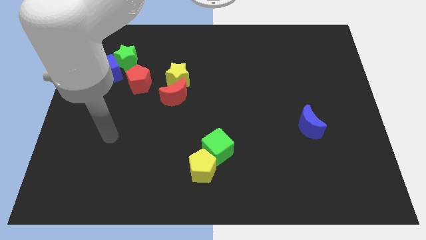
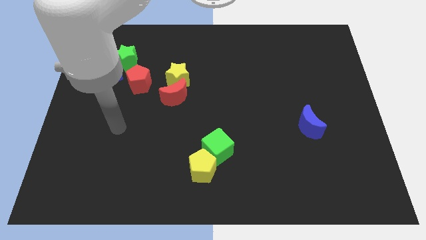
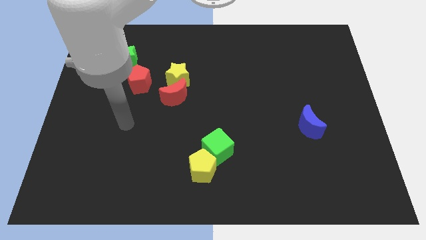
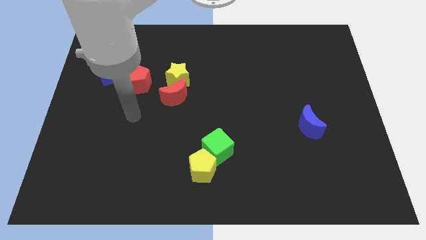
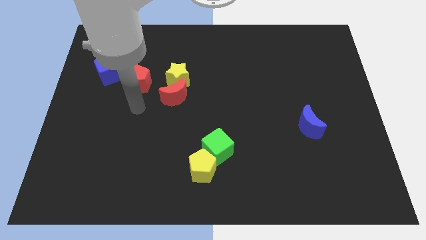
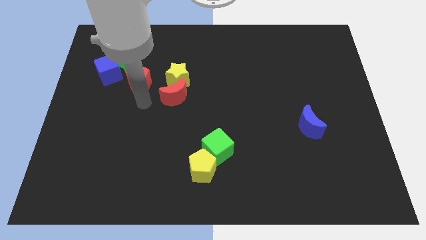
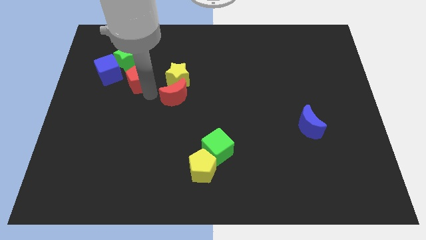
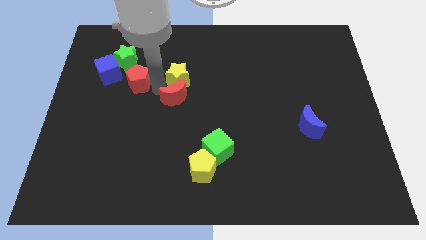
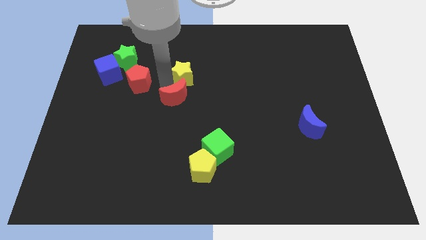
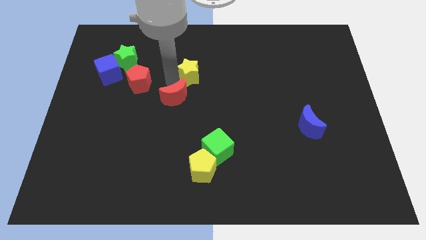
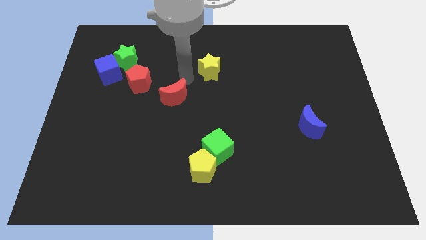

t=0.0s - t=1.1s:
pull the red moon apart from the yellow star

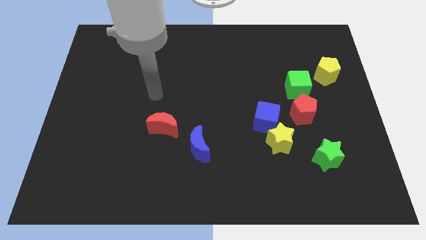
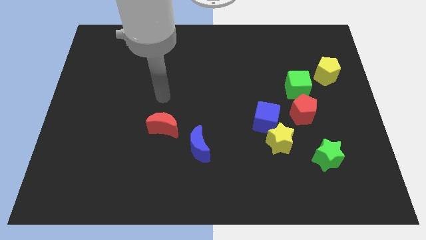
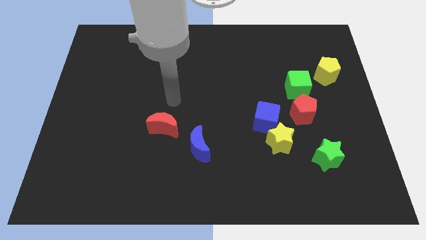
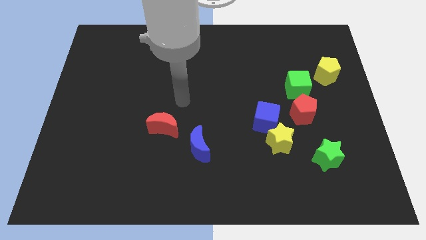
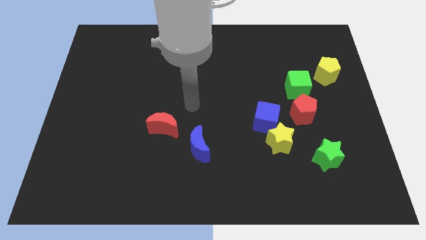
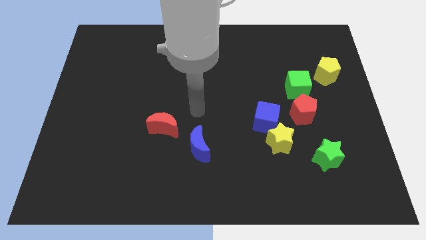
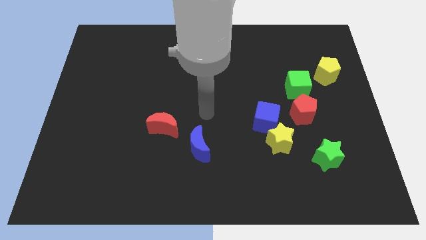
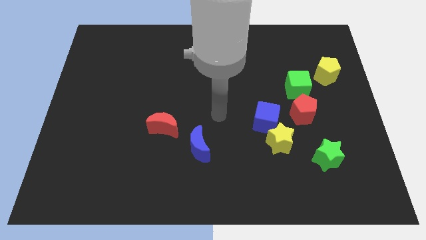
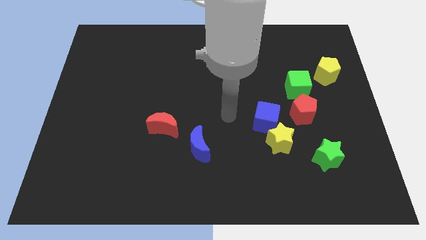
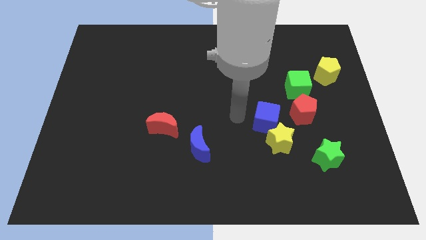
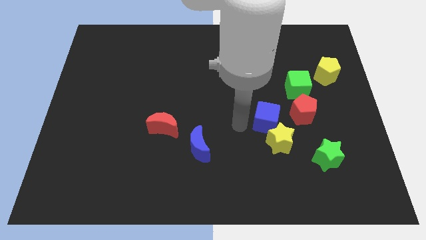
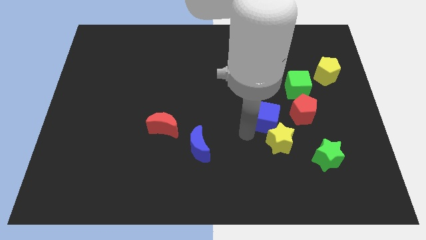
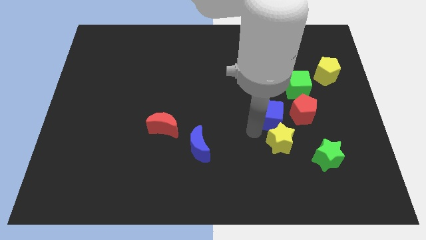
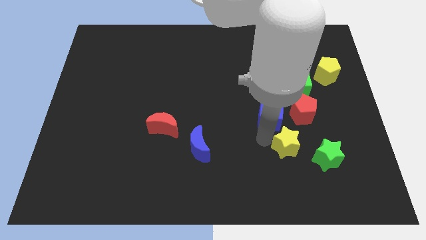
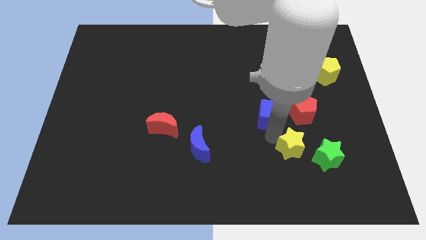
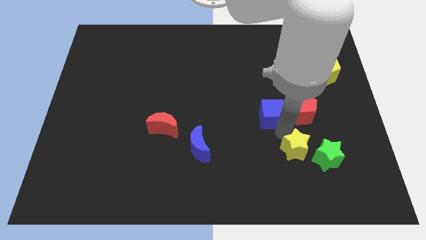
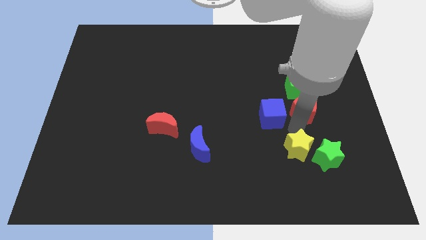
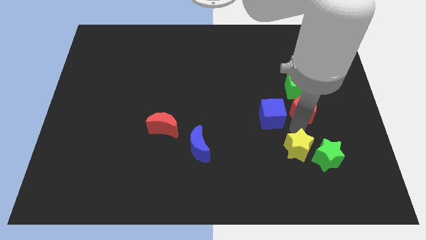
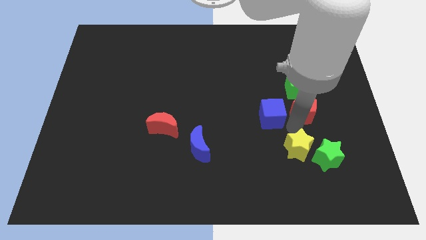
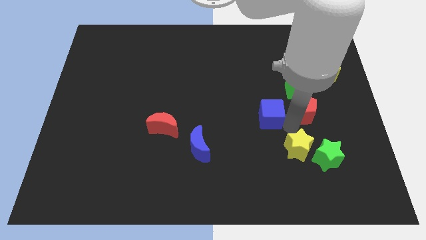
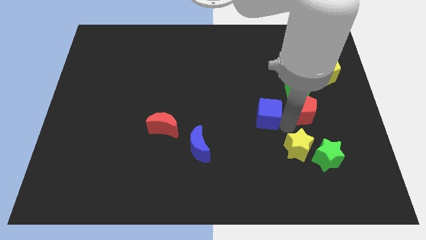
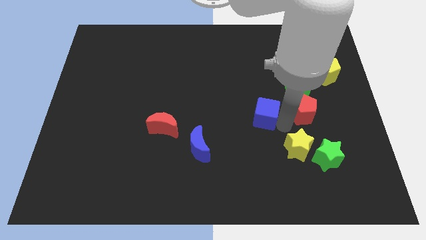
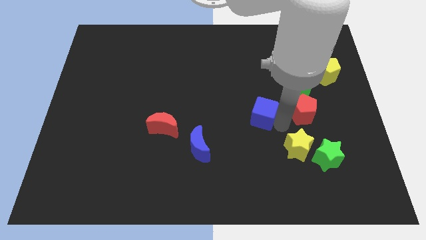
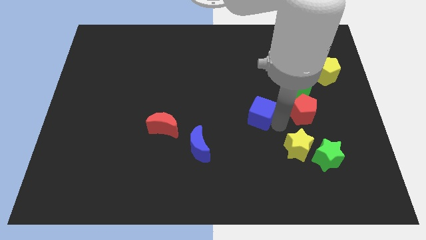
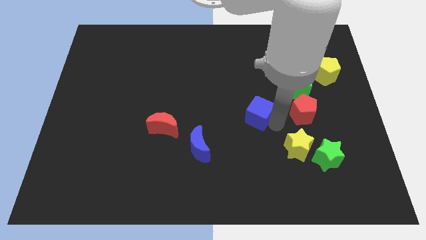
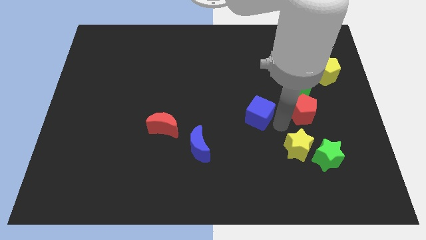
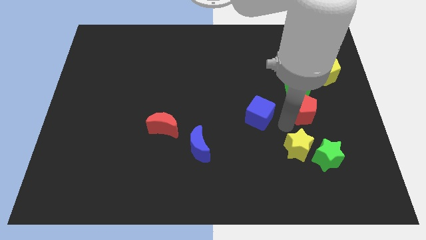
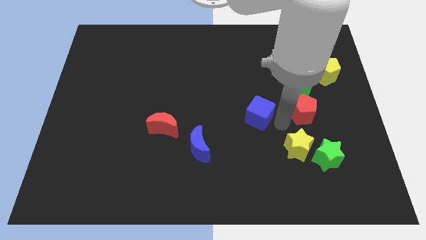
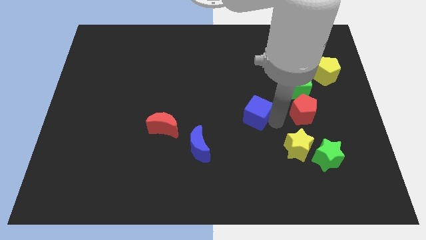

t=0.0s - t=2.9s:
separate the blue cube from the yellow star and red pentagon

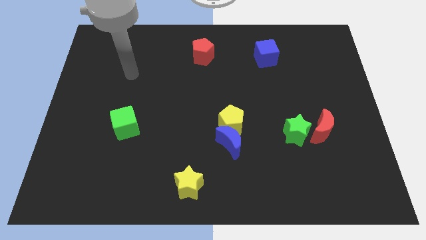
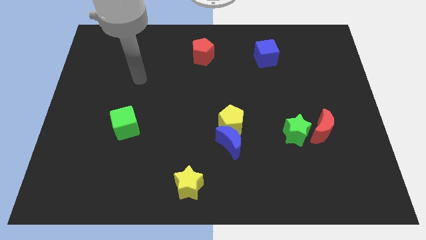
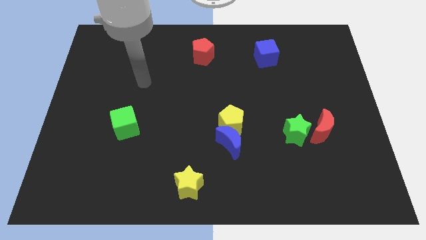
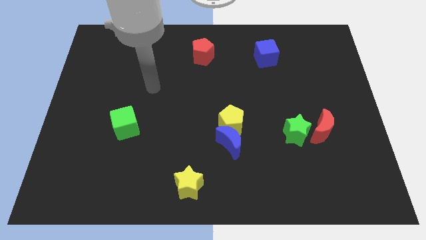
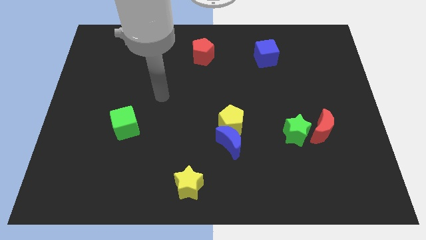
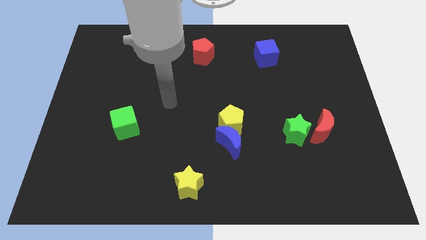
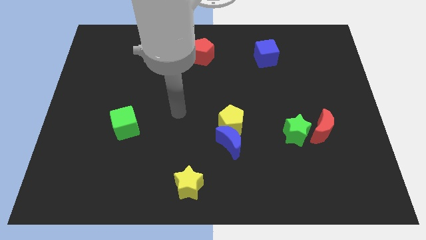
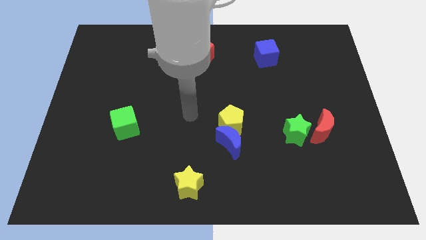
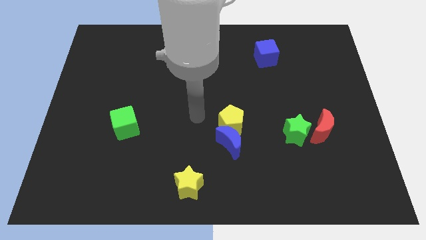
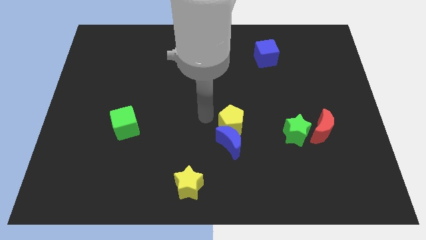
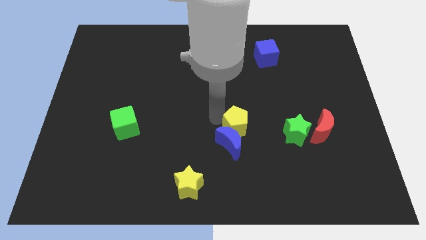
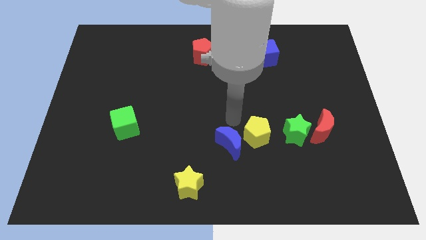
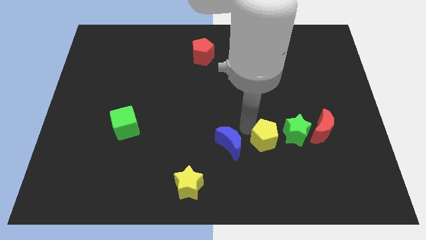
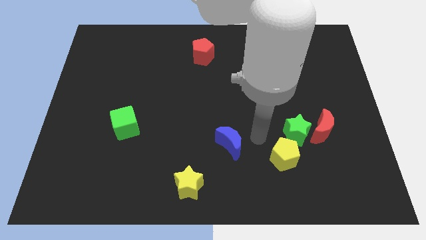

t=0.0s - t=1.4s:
pull the blue moon apart from the yellow pentagon

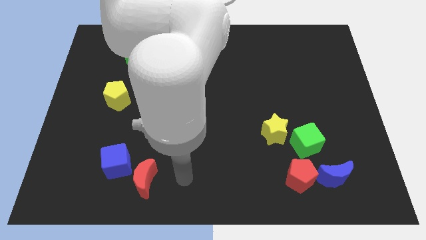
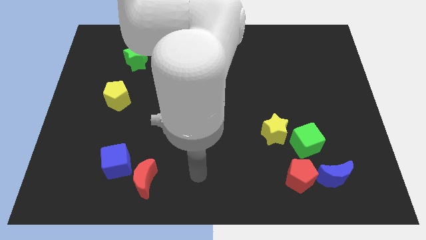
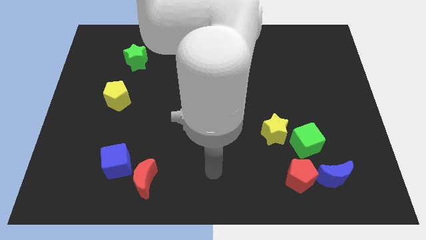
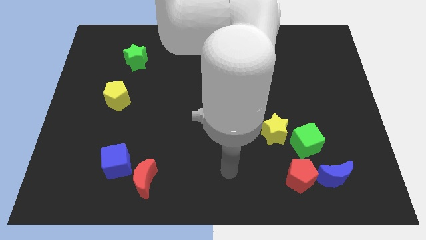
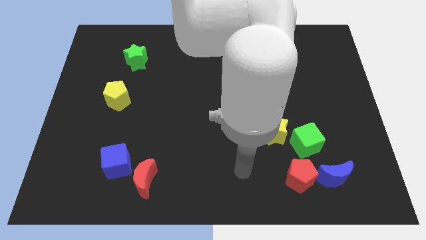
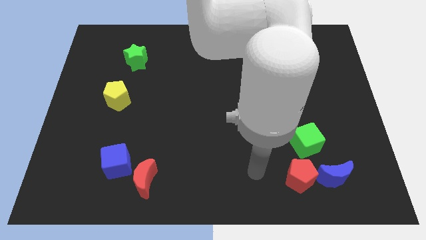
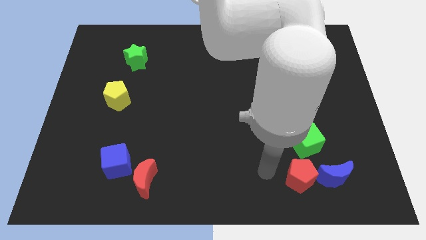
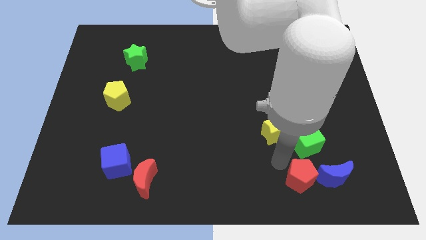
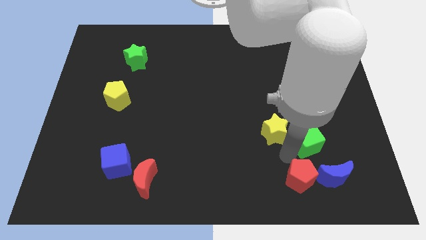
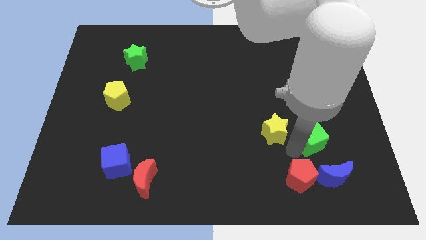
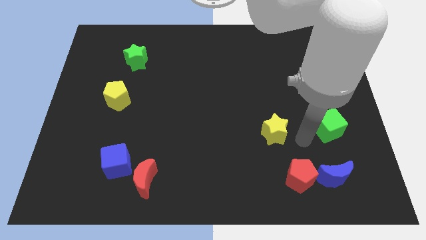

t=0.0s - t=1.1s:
separate the yellow star from the green cube

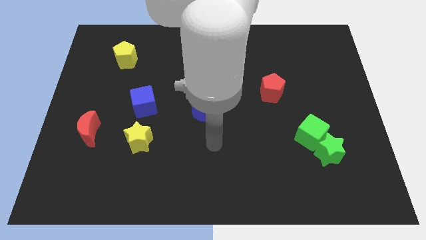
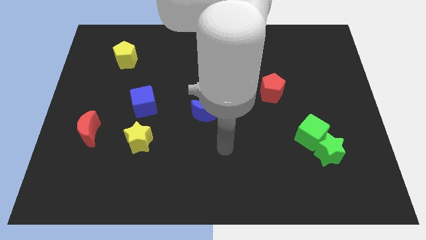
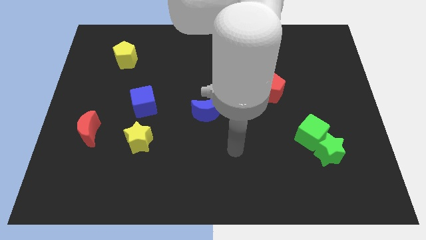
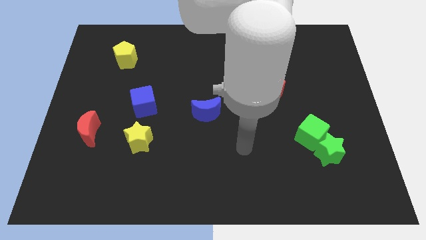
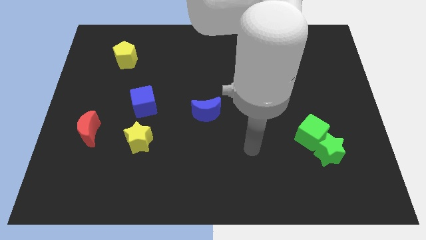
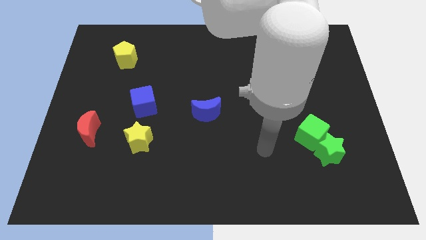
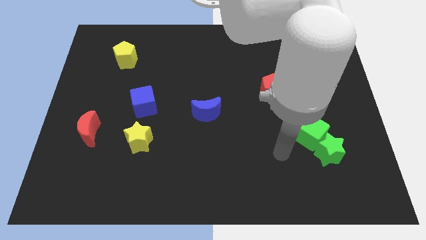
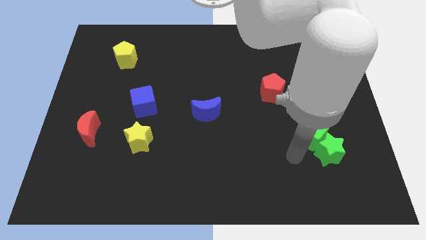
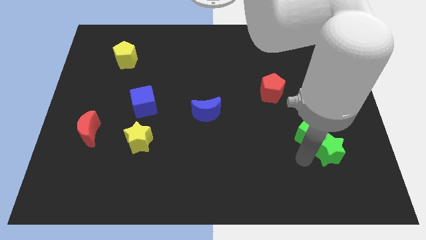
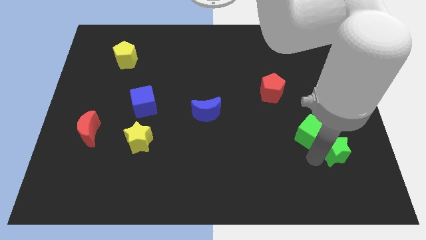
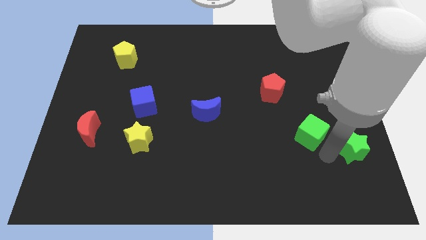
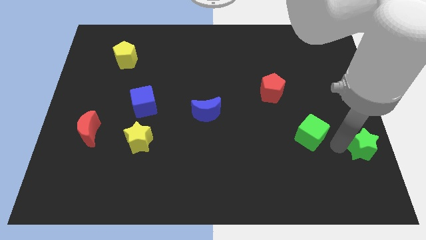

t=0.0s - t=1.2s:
separate the green cube from the green star

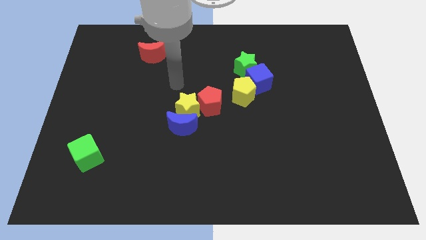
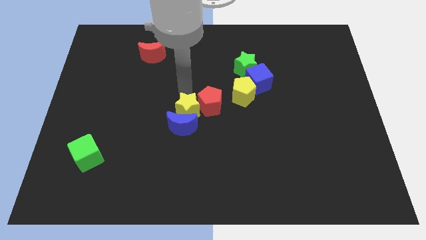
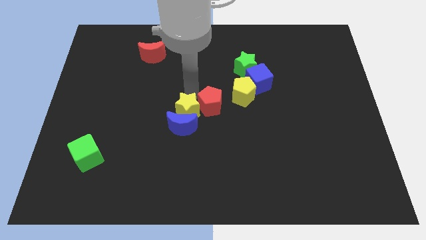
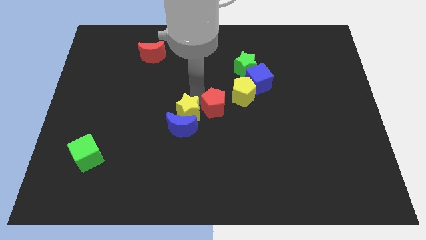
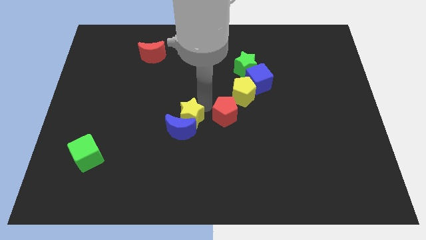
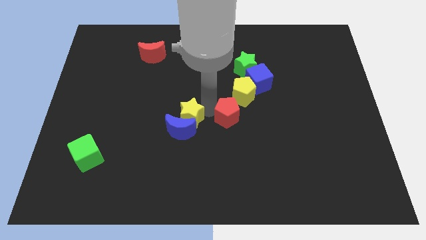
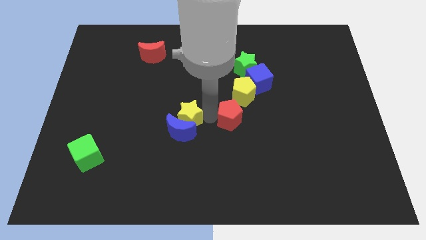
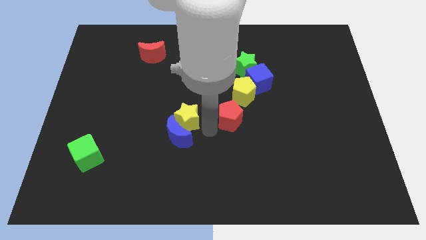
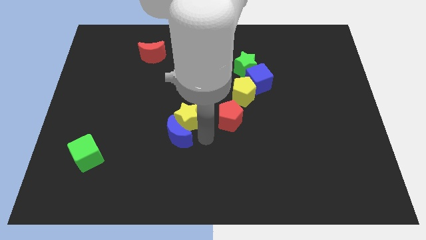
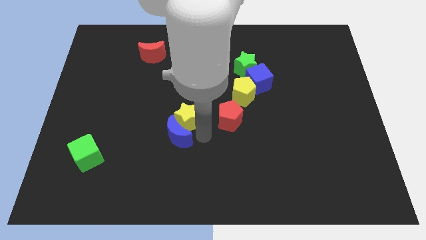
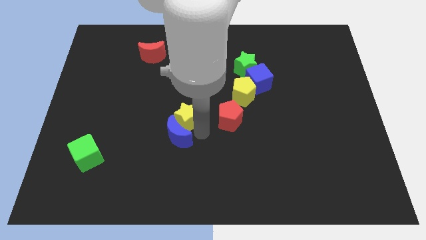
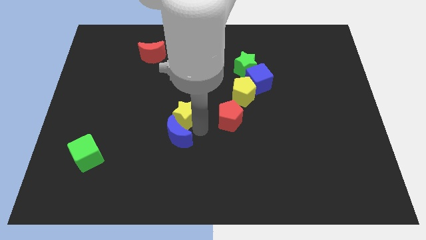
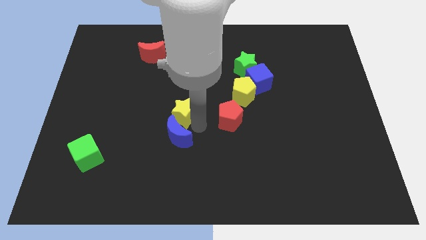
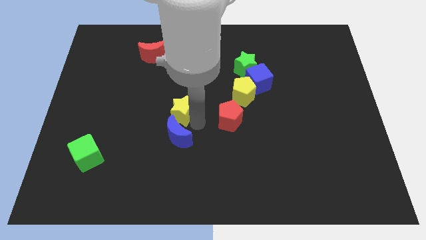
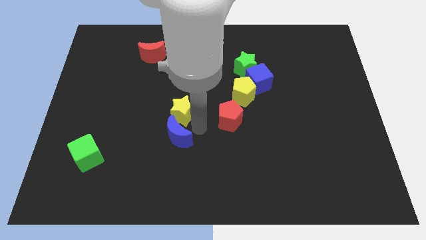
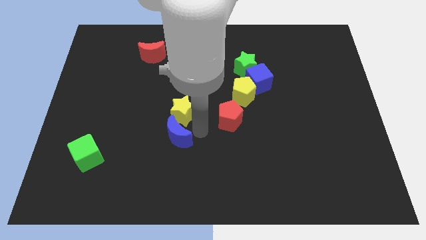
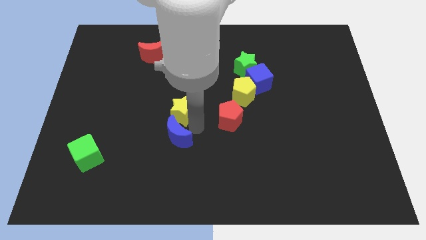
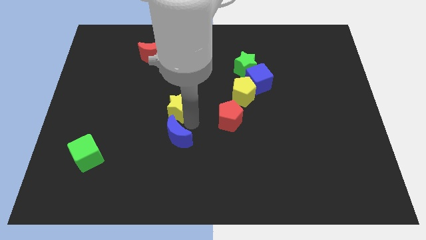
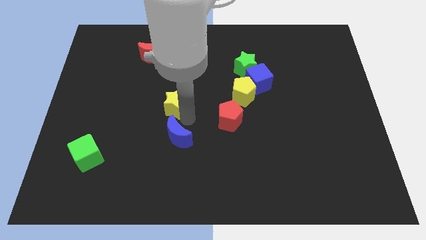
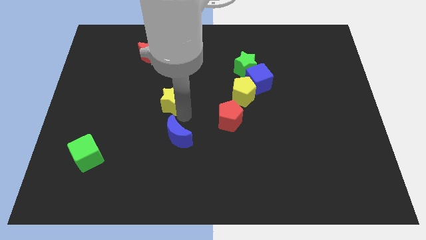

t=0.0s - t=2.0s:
move the yellow star away from the blue moon and red pentagon
